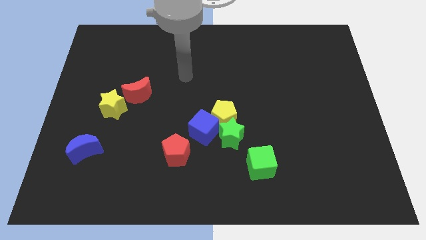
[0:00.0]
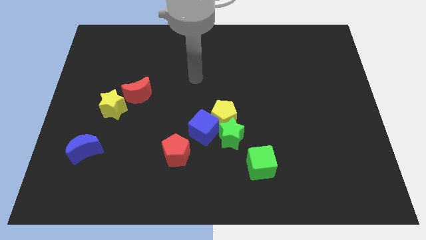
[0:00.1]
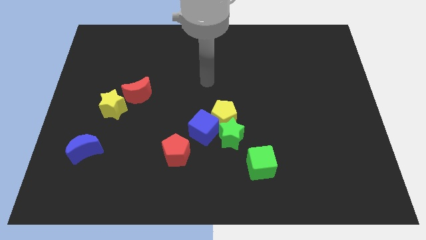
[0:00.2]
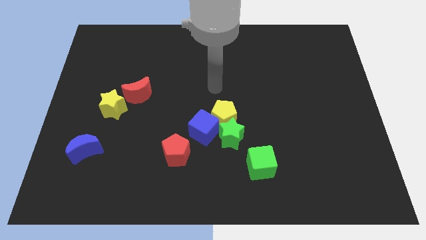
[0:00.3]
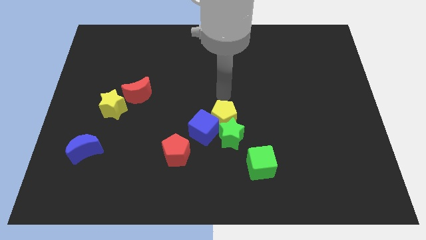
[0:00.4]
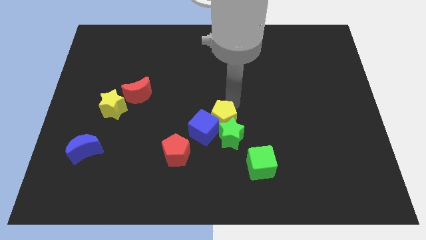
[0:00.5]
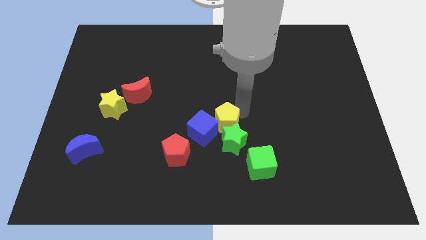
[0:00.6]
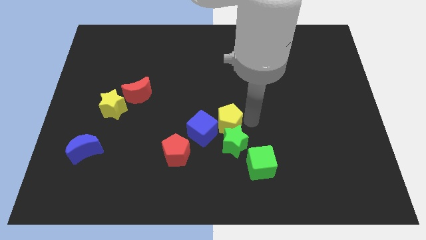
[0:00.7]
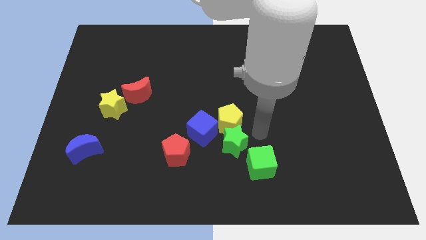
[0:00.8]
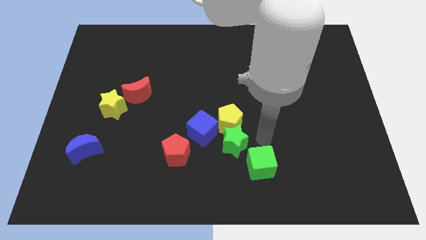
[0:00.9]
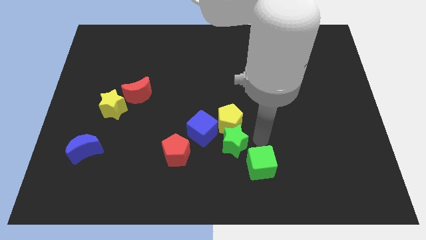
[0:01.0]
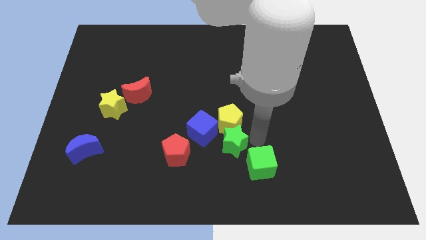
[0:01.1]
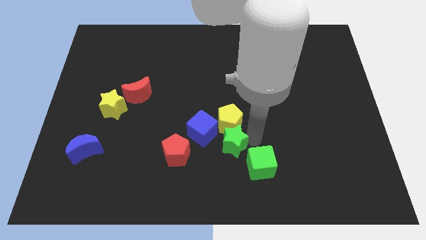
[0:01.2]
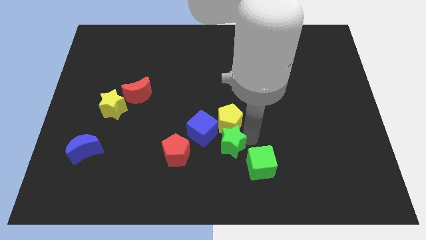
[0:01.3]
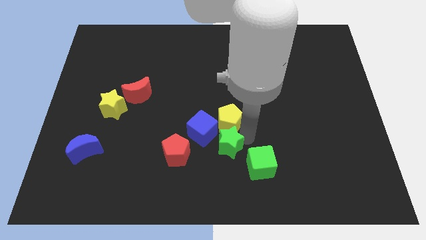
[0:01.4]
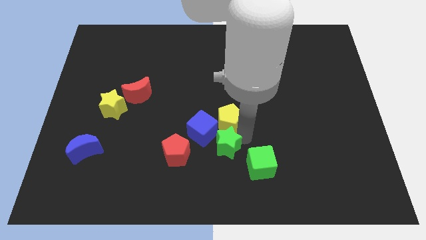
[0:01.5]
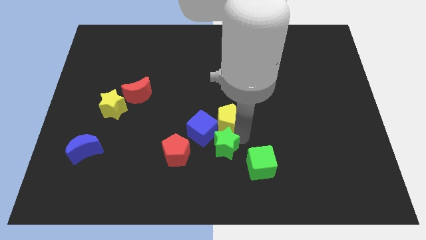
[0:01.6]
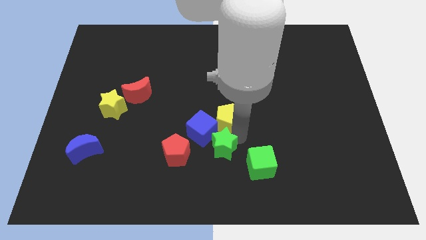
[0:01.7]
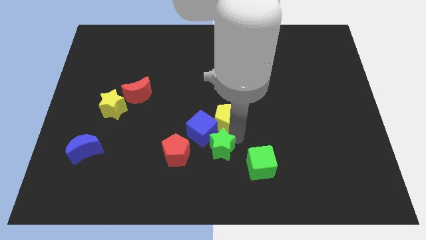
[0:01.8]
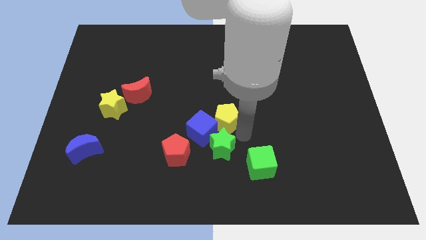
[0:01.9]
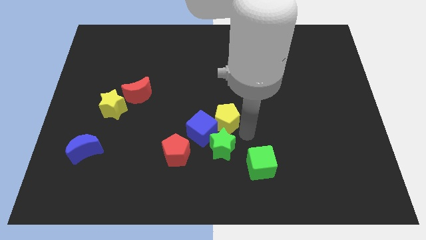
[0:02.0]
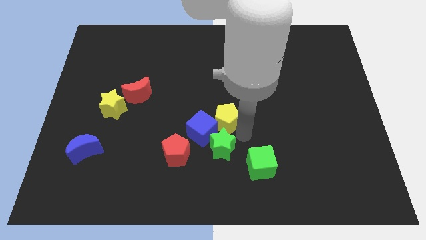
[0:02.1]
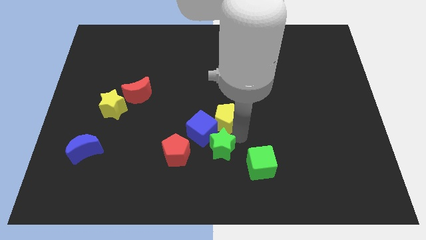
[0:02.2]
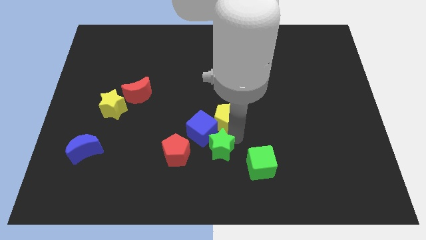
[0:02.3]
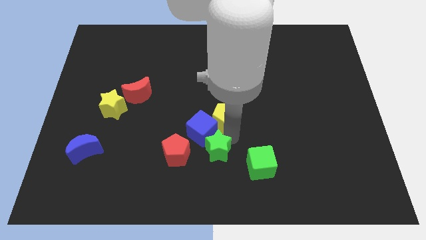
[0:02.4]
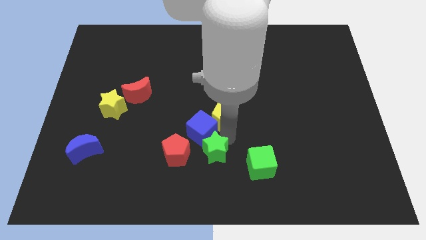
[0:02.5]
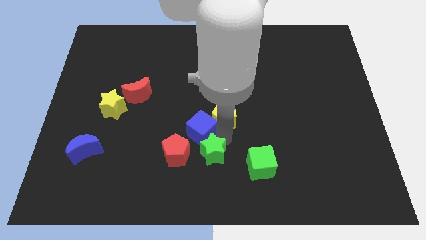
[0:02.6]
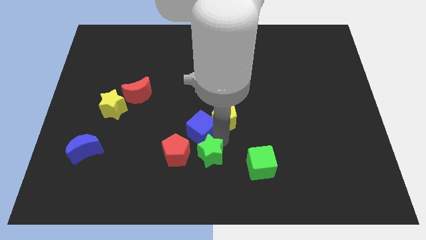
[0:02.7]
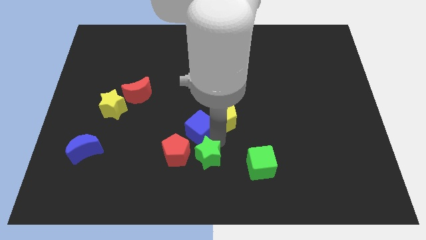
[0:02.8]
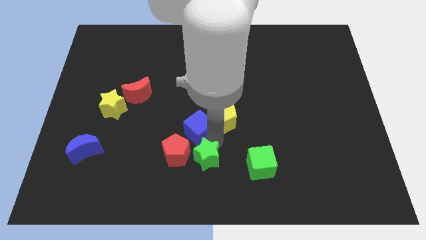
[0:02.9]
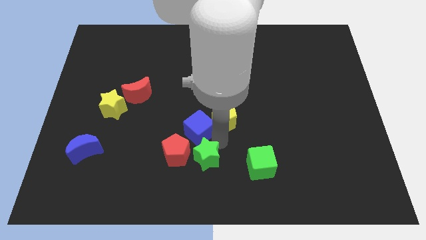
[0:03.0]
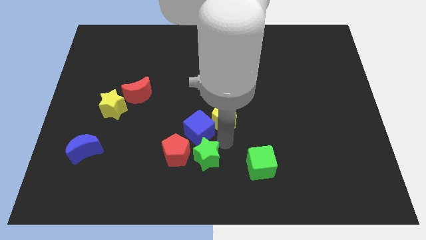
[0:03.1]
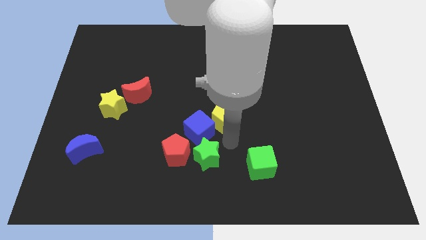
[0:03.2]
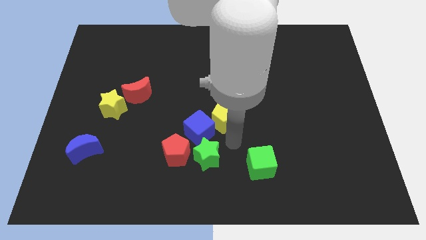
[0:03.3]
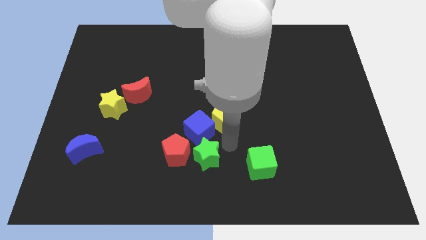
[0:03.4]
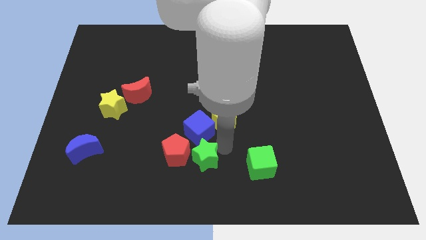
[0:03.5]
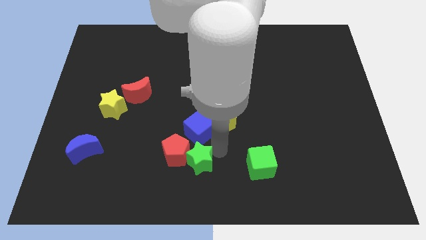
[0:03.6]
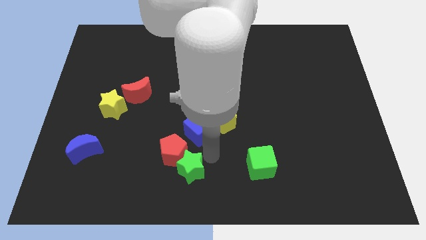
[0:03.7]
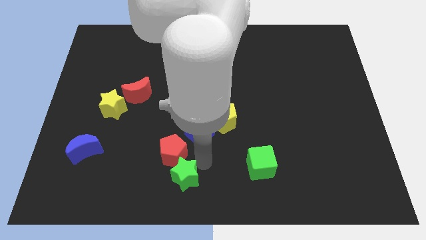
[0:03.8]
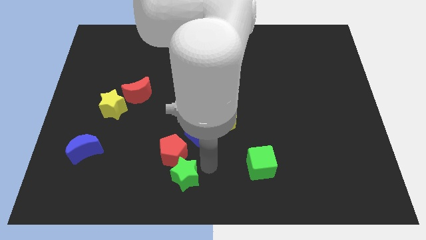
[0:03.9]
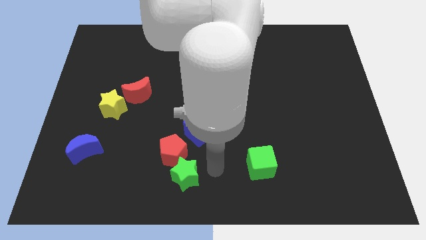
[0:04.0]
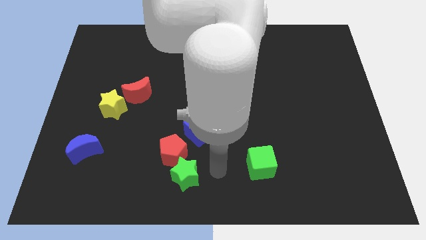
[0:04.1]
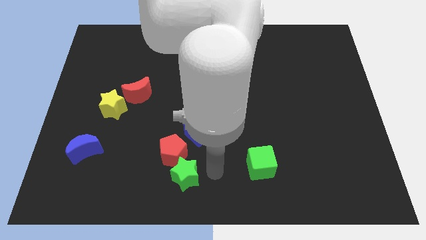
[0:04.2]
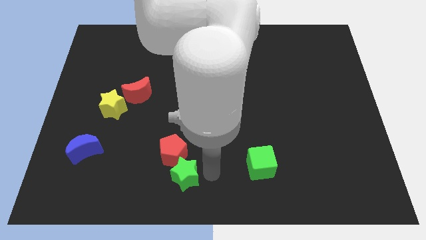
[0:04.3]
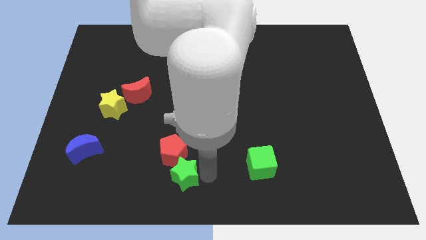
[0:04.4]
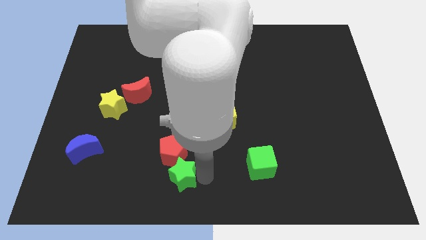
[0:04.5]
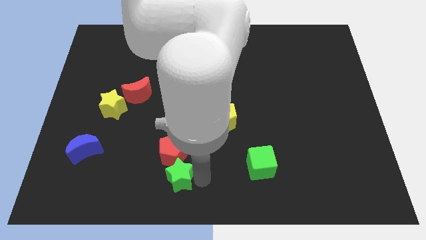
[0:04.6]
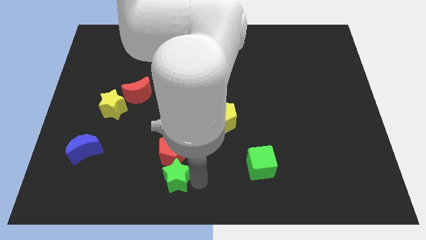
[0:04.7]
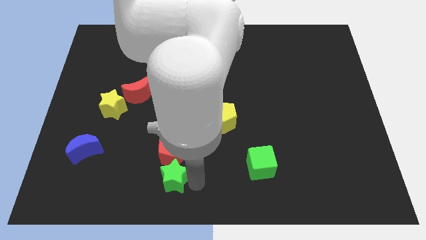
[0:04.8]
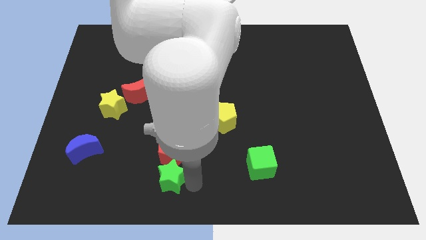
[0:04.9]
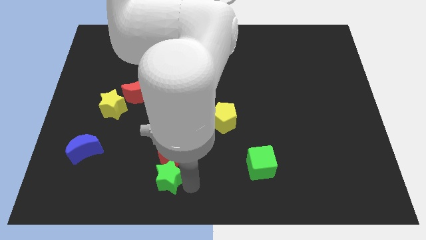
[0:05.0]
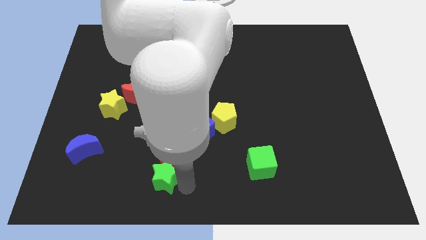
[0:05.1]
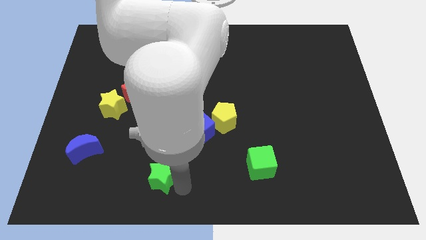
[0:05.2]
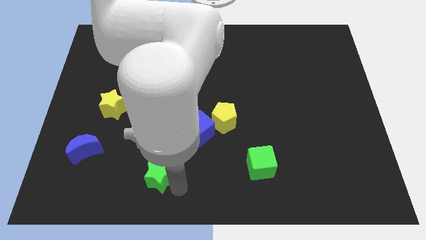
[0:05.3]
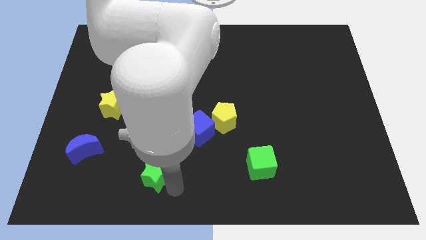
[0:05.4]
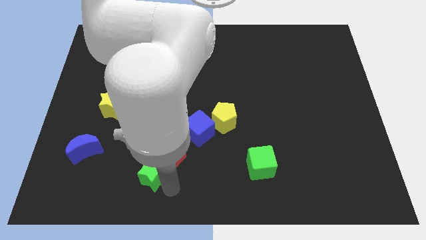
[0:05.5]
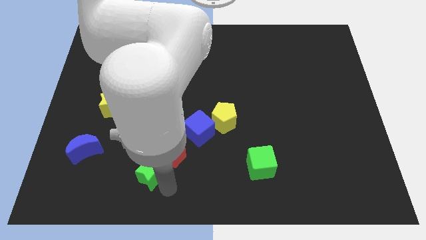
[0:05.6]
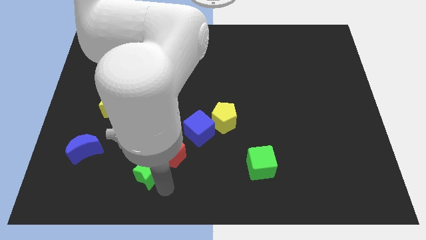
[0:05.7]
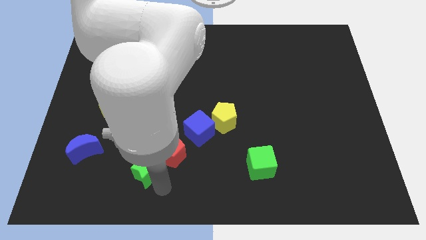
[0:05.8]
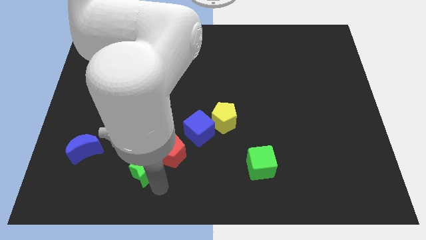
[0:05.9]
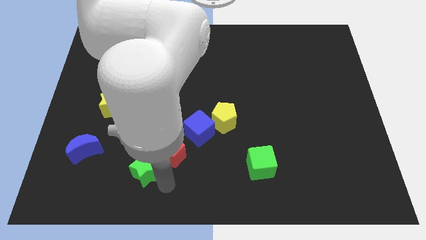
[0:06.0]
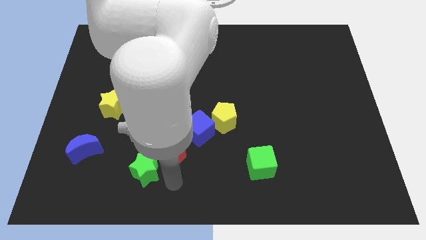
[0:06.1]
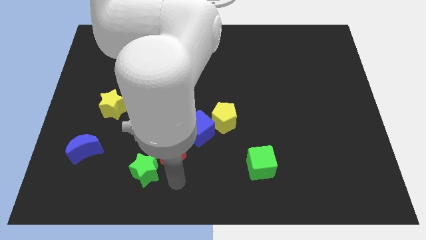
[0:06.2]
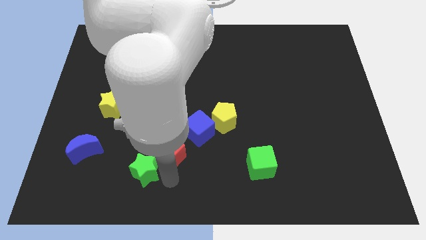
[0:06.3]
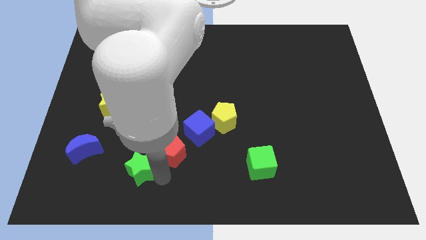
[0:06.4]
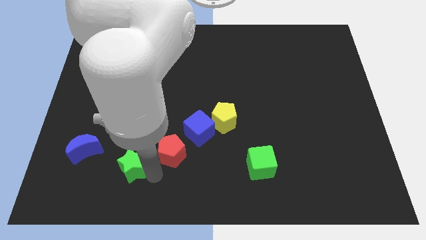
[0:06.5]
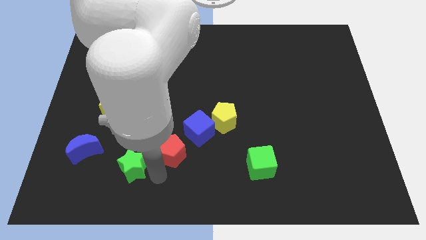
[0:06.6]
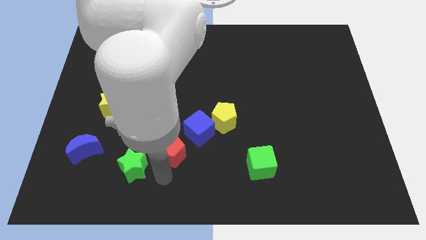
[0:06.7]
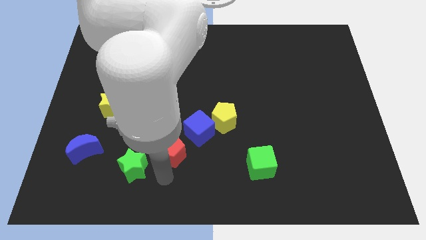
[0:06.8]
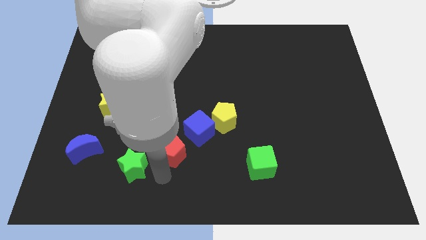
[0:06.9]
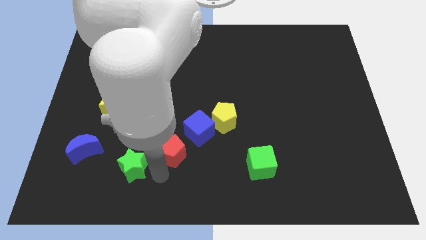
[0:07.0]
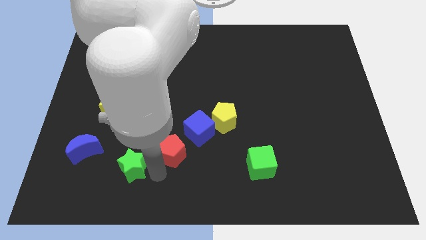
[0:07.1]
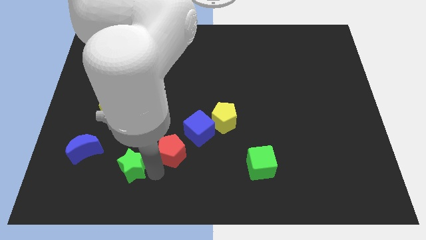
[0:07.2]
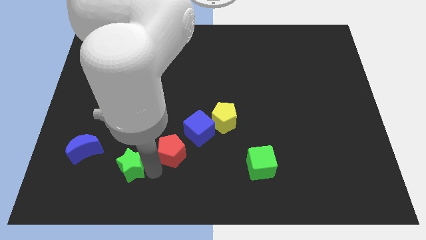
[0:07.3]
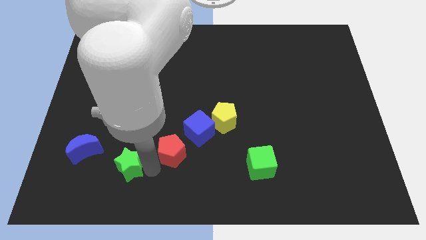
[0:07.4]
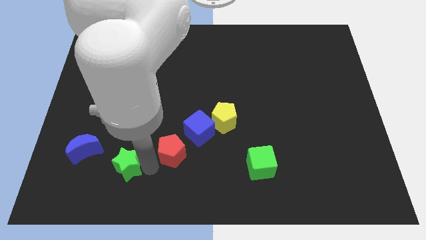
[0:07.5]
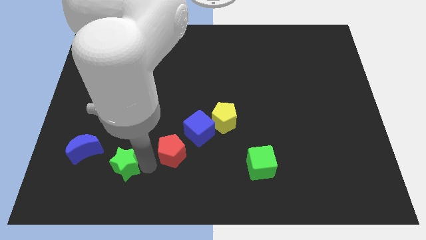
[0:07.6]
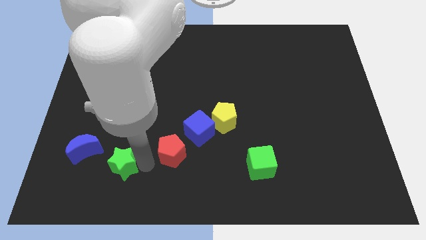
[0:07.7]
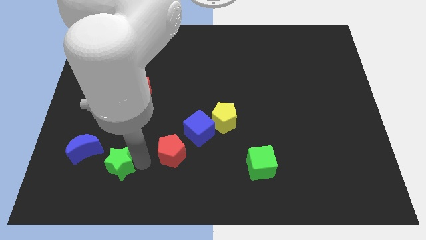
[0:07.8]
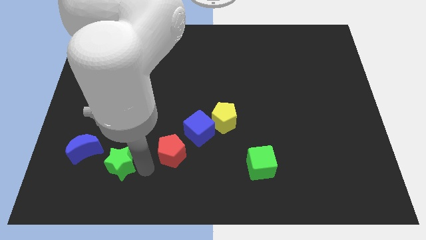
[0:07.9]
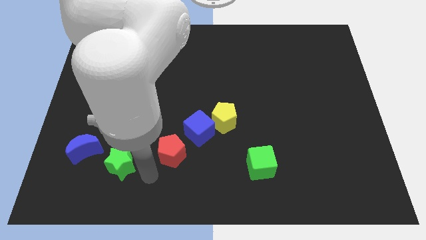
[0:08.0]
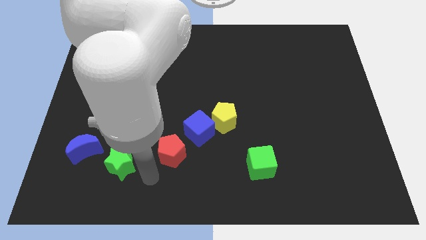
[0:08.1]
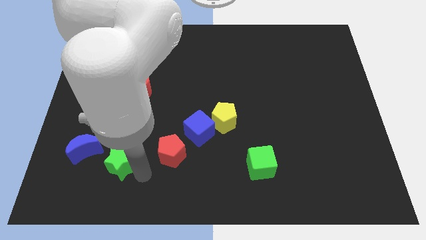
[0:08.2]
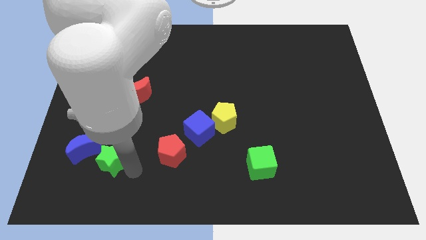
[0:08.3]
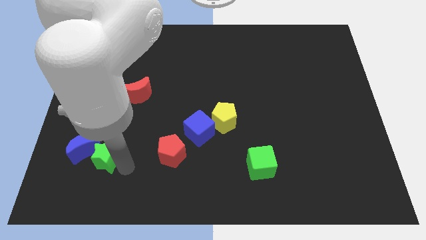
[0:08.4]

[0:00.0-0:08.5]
push the green star close to the blue moon
